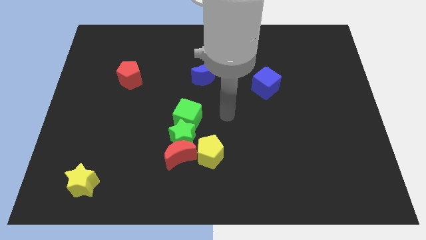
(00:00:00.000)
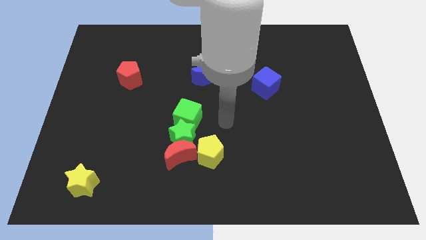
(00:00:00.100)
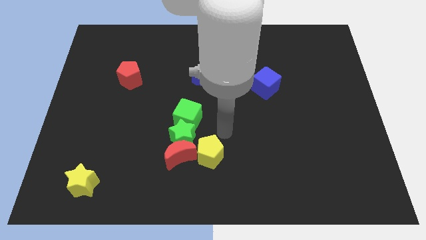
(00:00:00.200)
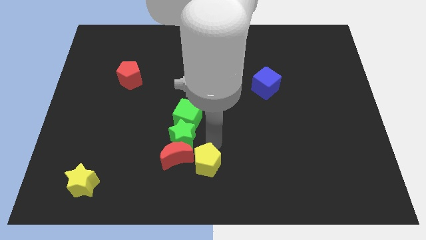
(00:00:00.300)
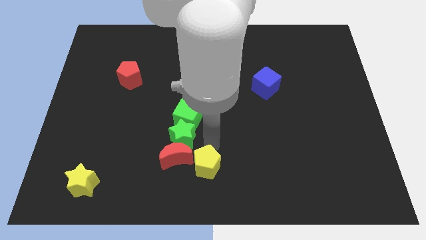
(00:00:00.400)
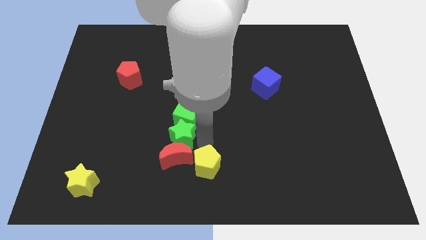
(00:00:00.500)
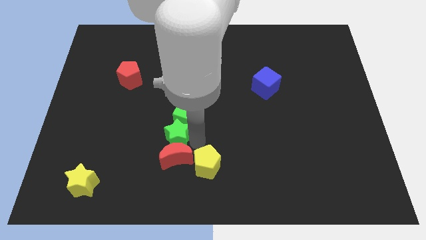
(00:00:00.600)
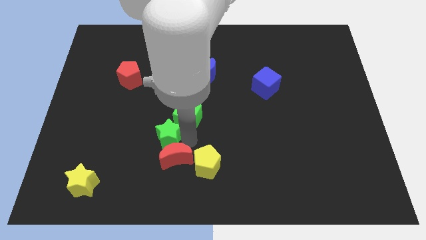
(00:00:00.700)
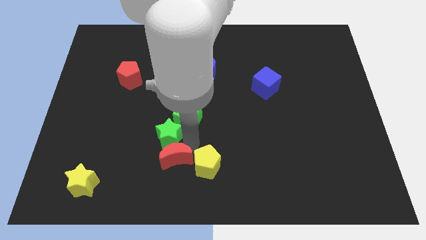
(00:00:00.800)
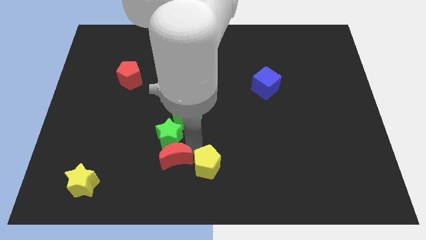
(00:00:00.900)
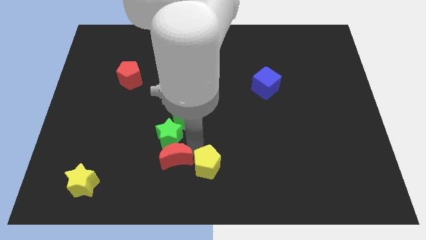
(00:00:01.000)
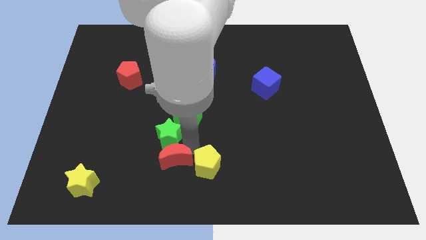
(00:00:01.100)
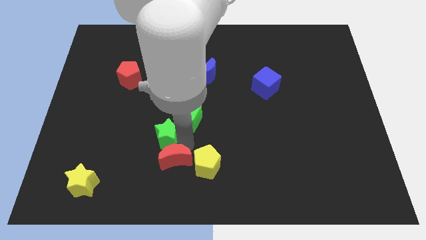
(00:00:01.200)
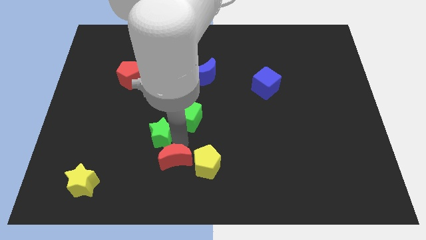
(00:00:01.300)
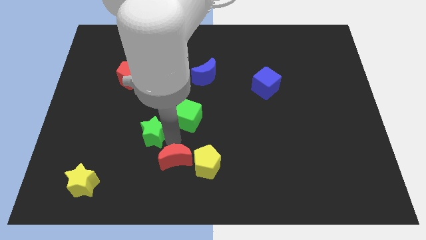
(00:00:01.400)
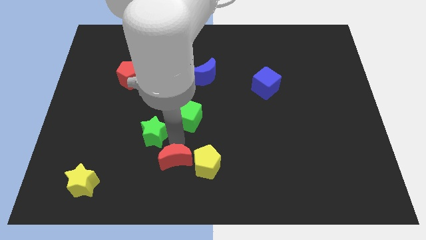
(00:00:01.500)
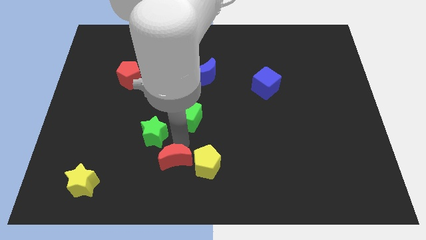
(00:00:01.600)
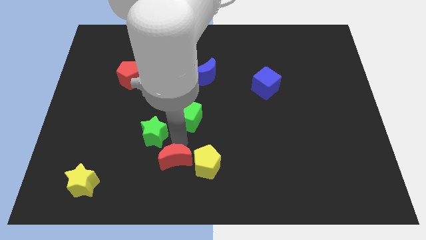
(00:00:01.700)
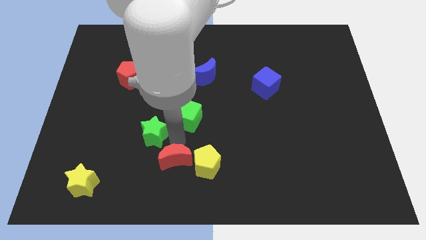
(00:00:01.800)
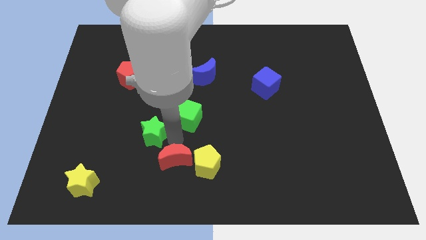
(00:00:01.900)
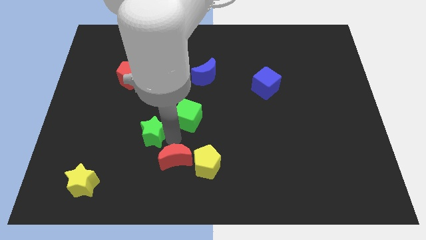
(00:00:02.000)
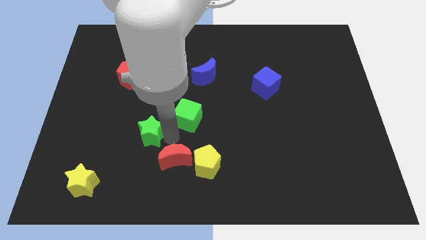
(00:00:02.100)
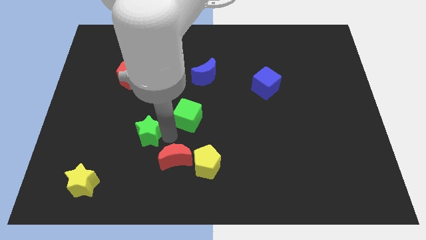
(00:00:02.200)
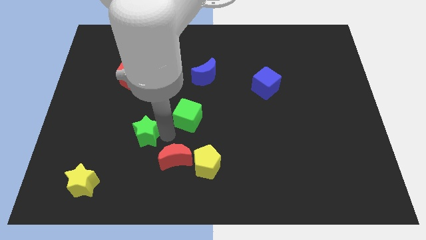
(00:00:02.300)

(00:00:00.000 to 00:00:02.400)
separate the green star from the clump

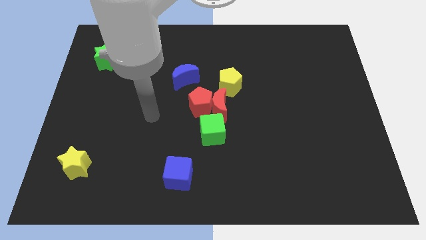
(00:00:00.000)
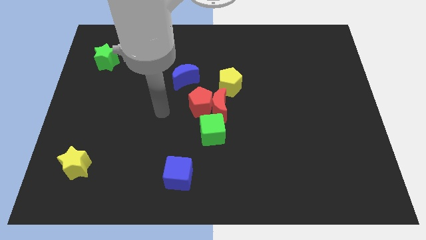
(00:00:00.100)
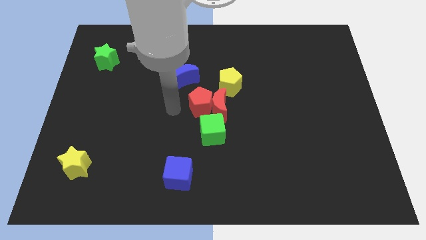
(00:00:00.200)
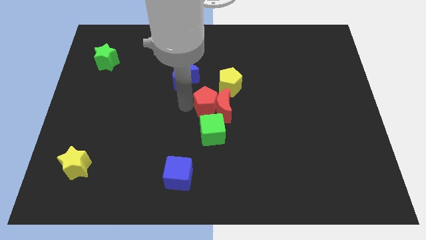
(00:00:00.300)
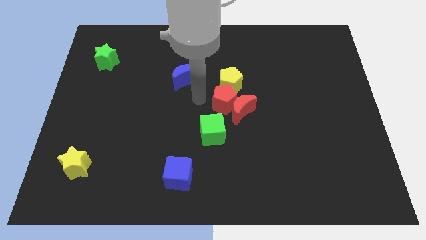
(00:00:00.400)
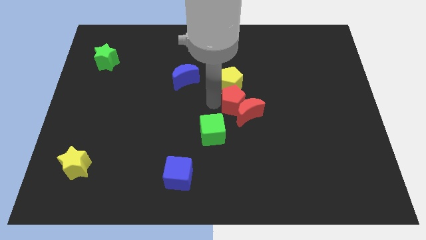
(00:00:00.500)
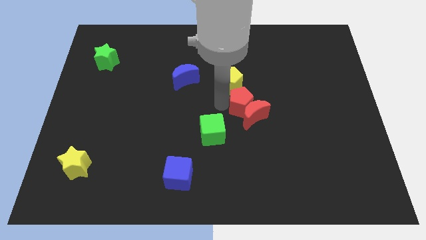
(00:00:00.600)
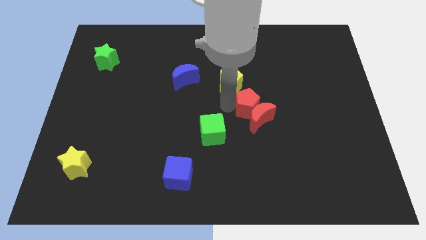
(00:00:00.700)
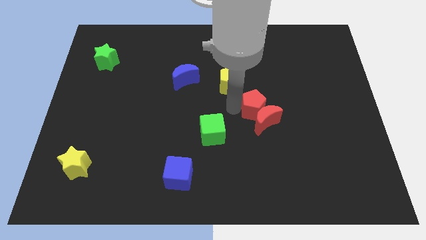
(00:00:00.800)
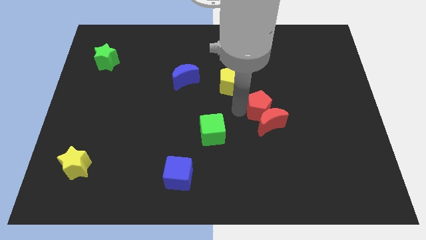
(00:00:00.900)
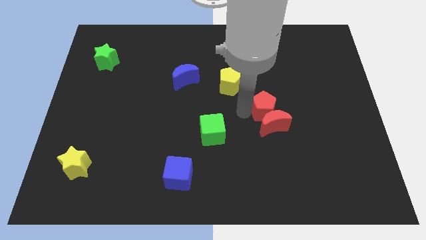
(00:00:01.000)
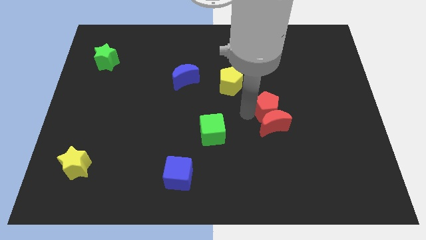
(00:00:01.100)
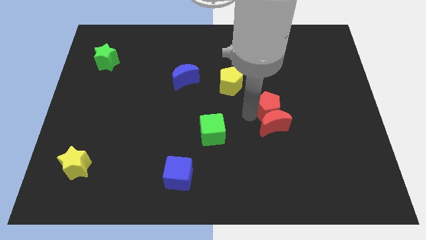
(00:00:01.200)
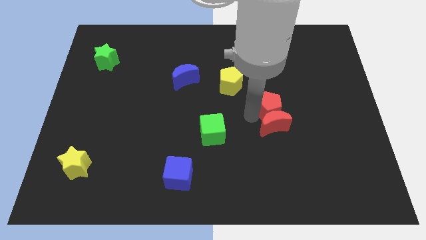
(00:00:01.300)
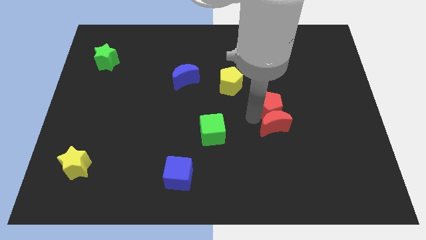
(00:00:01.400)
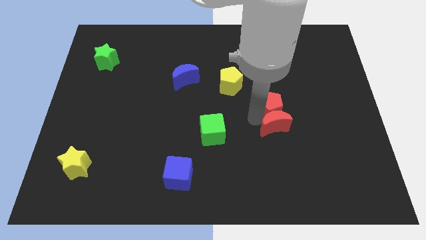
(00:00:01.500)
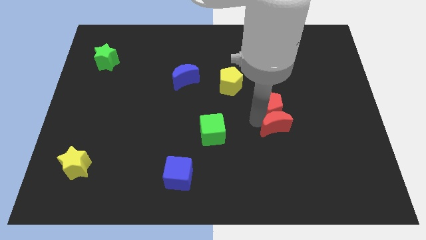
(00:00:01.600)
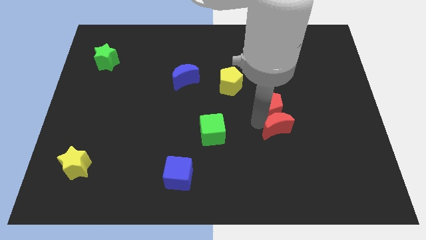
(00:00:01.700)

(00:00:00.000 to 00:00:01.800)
pull the red moon apart from the red pentagon, green cube, and yellow pentagon

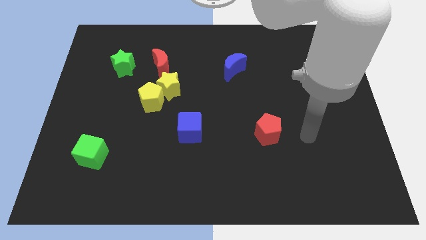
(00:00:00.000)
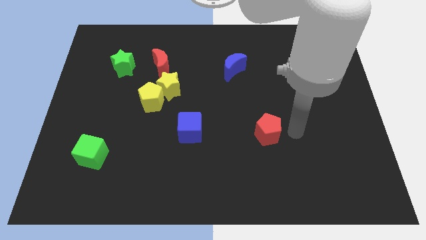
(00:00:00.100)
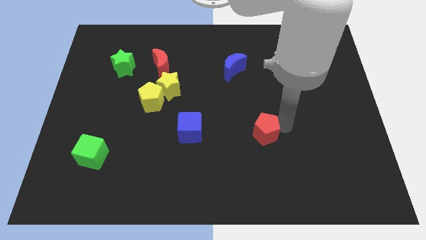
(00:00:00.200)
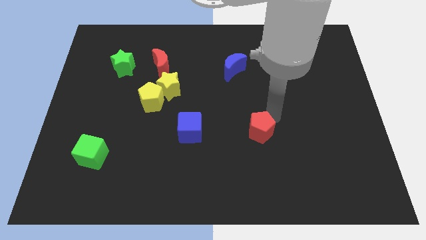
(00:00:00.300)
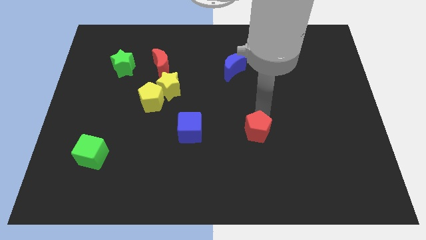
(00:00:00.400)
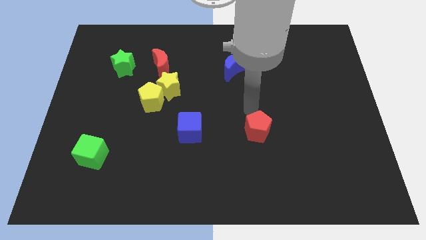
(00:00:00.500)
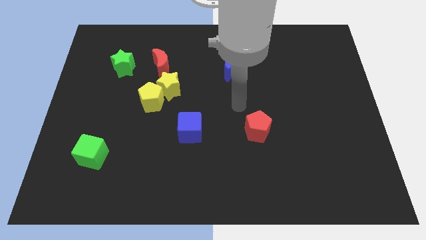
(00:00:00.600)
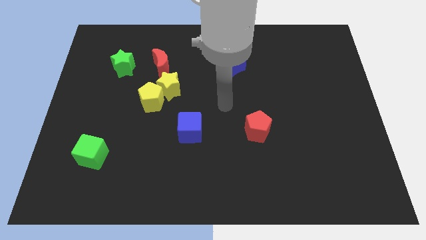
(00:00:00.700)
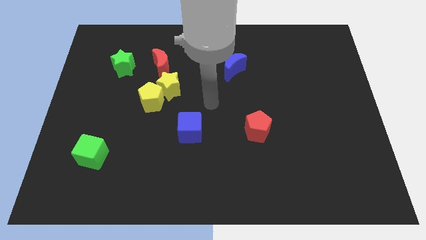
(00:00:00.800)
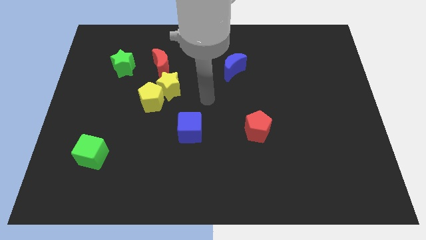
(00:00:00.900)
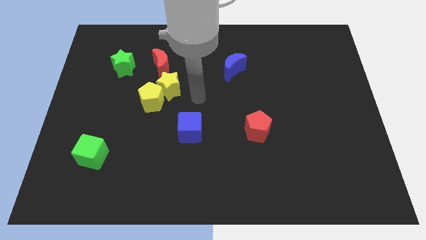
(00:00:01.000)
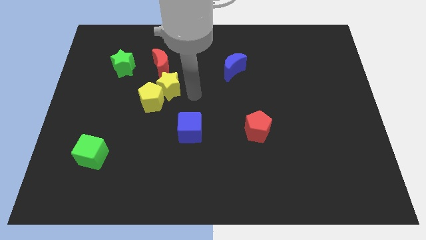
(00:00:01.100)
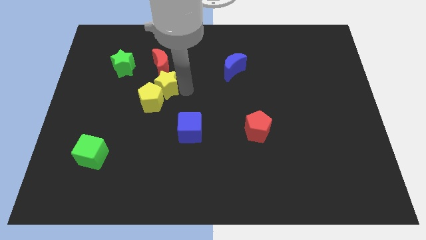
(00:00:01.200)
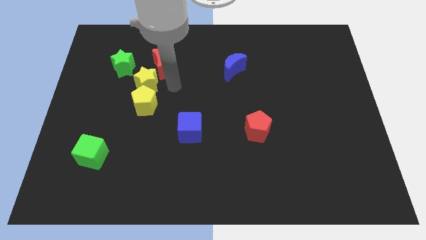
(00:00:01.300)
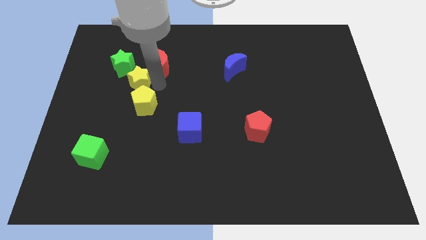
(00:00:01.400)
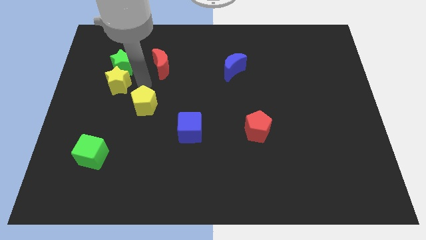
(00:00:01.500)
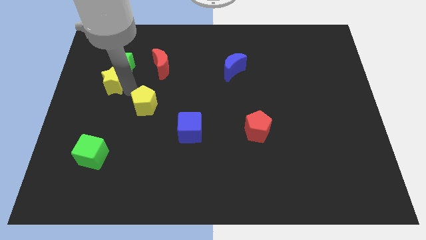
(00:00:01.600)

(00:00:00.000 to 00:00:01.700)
move the yellow pentagon away from the yellow star

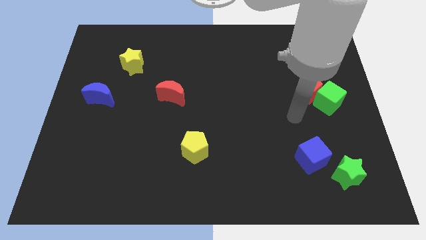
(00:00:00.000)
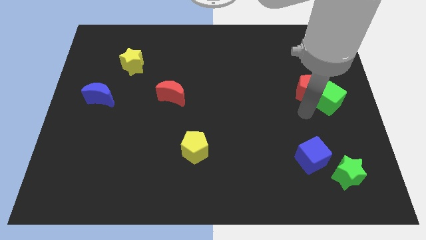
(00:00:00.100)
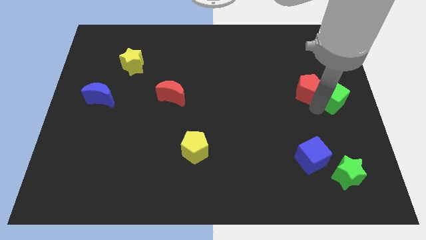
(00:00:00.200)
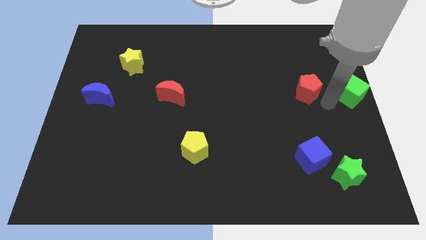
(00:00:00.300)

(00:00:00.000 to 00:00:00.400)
pull the red pentagon apart from the green cube

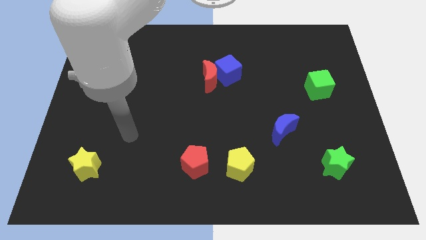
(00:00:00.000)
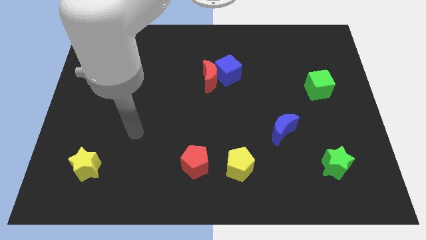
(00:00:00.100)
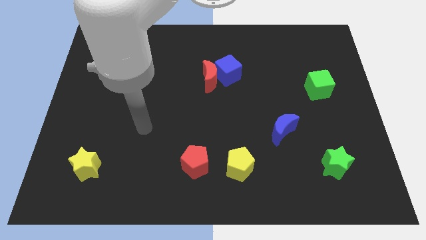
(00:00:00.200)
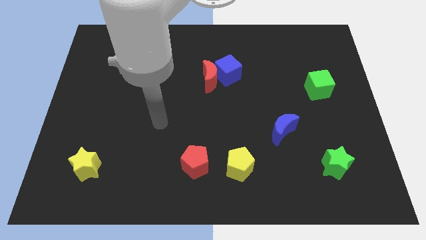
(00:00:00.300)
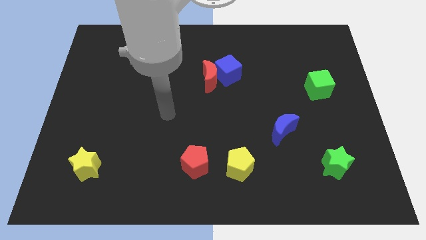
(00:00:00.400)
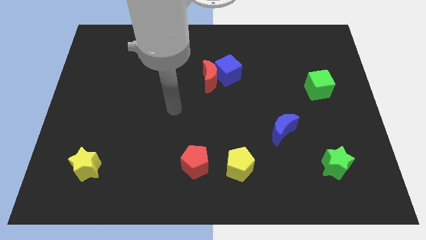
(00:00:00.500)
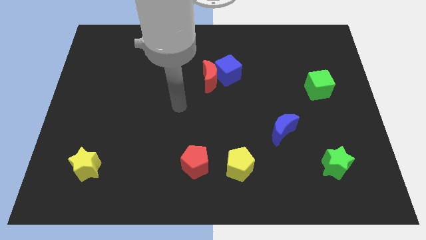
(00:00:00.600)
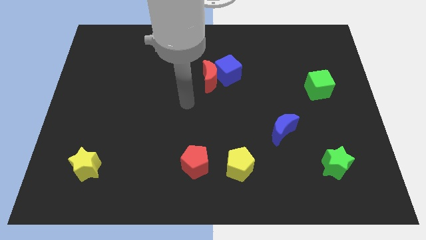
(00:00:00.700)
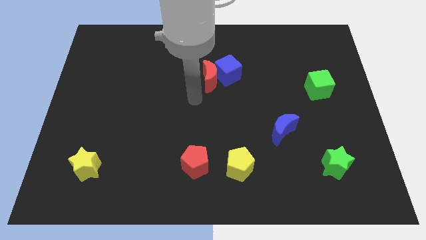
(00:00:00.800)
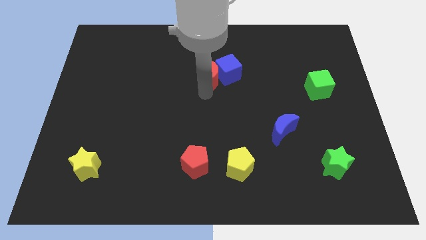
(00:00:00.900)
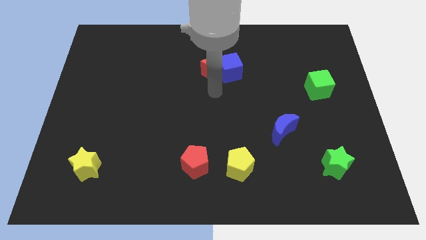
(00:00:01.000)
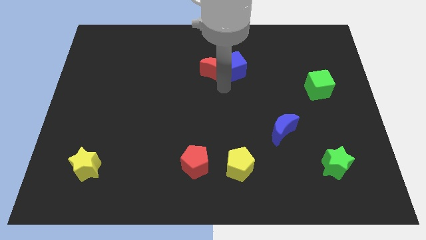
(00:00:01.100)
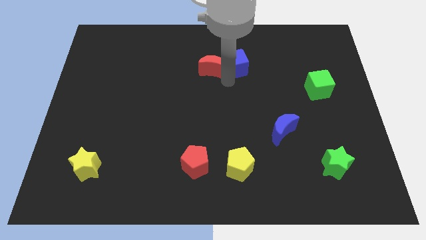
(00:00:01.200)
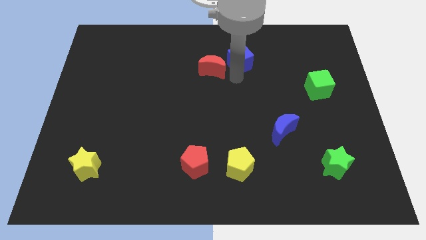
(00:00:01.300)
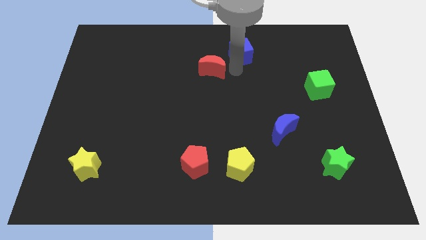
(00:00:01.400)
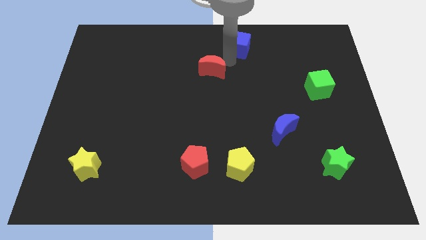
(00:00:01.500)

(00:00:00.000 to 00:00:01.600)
move the red moon away from the blue cube

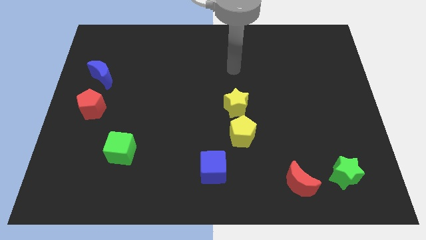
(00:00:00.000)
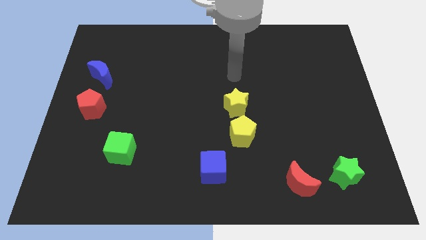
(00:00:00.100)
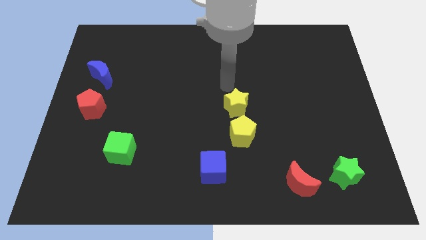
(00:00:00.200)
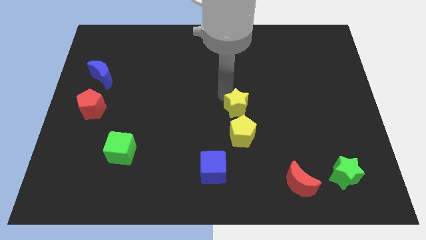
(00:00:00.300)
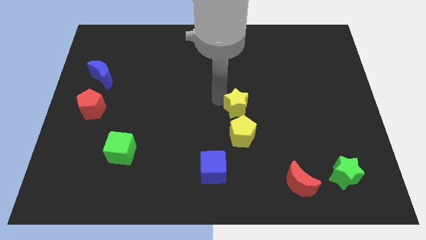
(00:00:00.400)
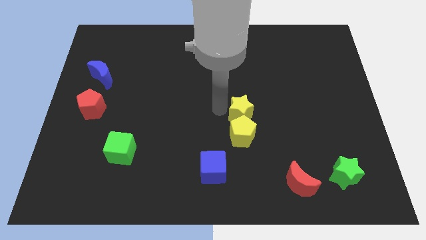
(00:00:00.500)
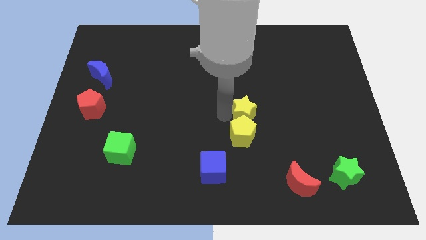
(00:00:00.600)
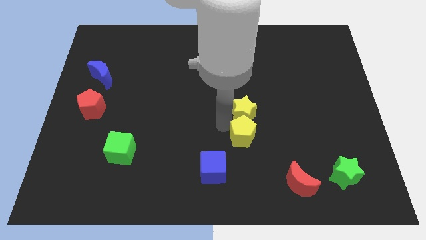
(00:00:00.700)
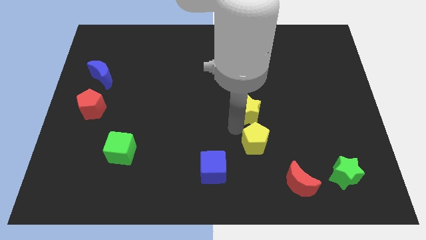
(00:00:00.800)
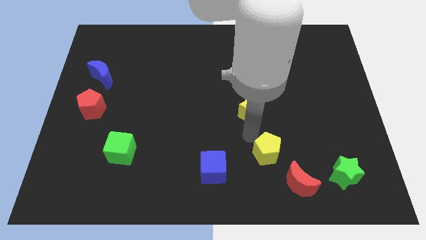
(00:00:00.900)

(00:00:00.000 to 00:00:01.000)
move the yellow star away from the yellow pentagon

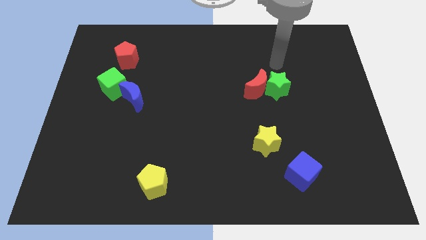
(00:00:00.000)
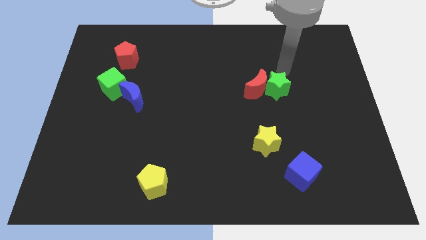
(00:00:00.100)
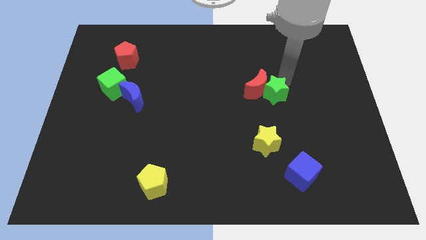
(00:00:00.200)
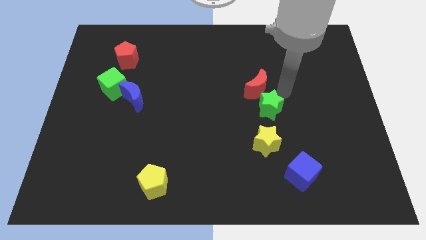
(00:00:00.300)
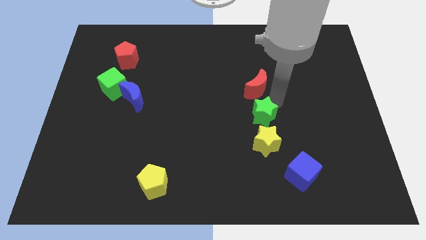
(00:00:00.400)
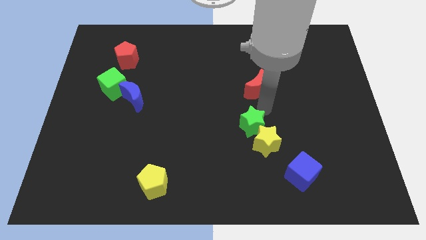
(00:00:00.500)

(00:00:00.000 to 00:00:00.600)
pull the red moon apart from the green star
